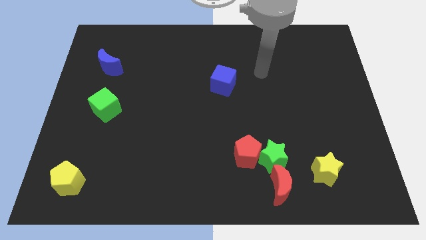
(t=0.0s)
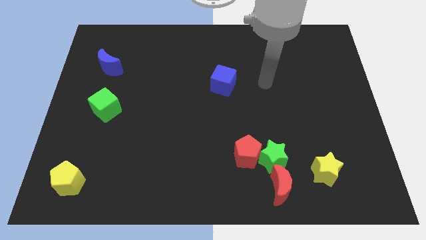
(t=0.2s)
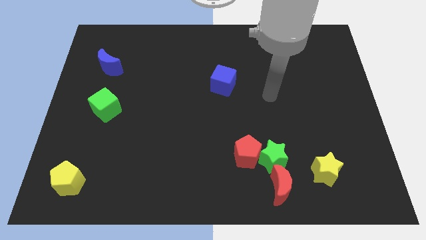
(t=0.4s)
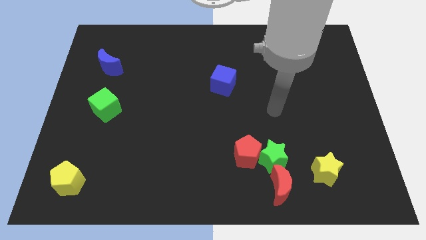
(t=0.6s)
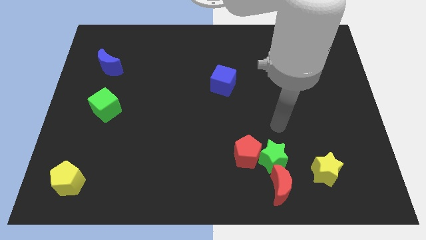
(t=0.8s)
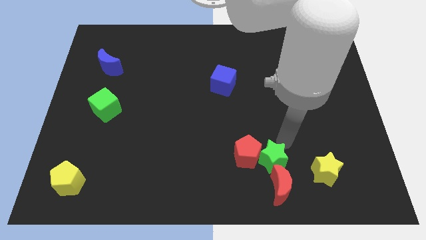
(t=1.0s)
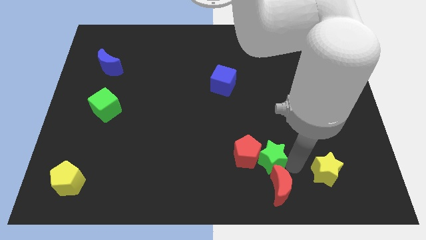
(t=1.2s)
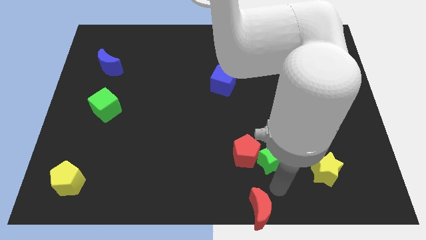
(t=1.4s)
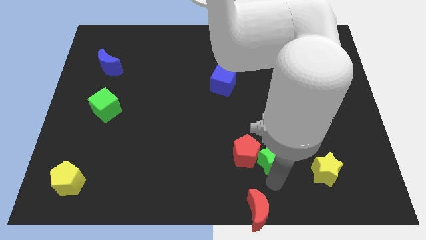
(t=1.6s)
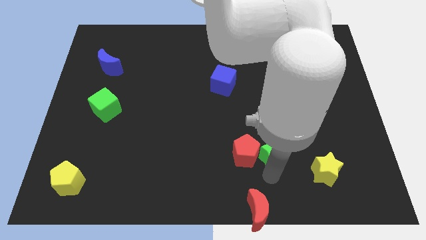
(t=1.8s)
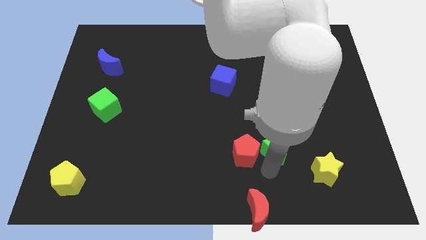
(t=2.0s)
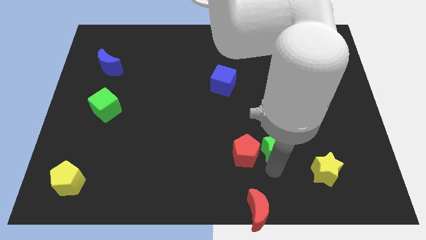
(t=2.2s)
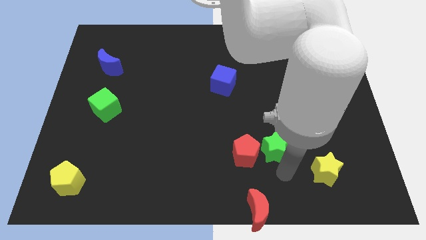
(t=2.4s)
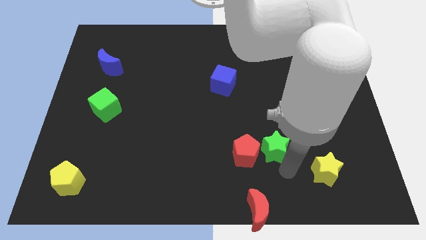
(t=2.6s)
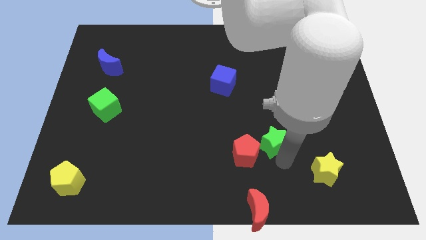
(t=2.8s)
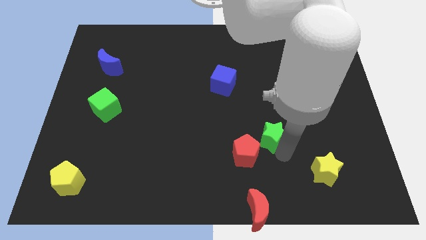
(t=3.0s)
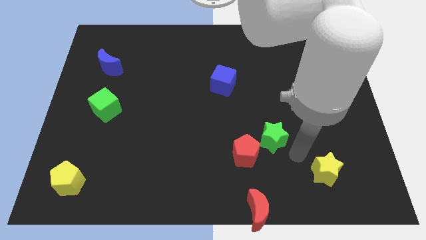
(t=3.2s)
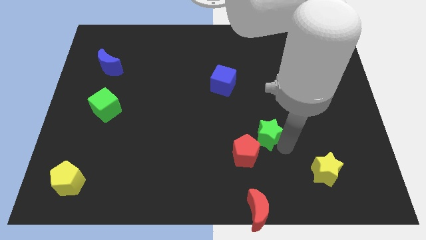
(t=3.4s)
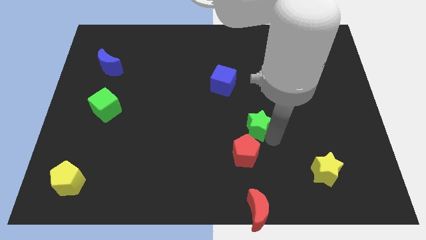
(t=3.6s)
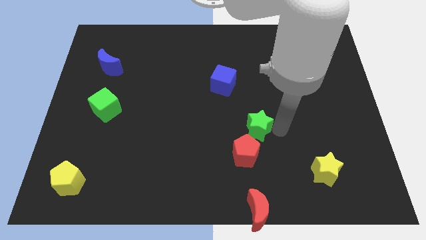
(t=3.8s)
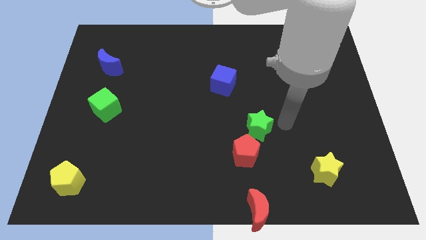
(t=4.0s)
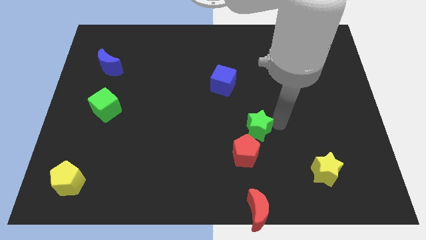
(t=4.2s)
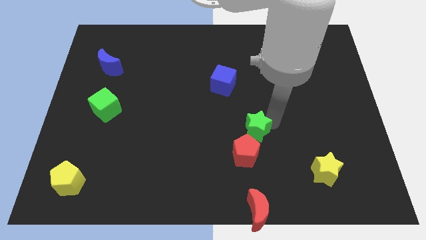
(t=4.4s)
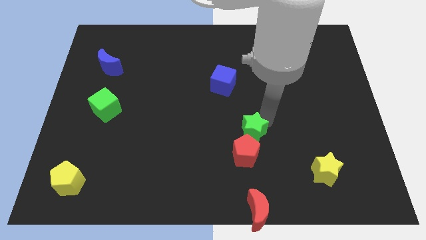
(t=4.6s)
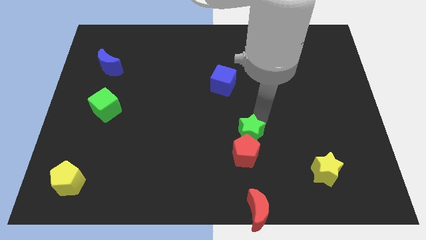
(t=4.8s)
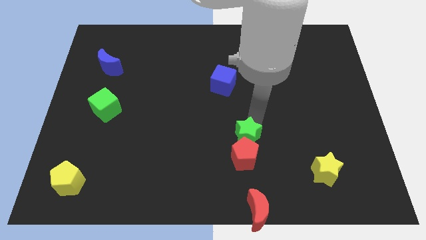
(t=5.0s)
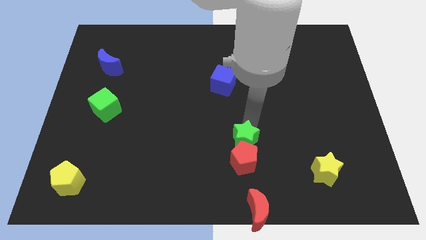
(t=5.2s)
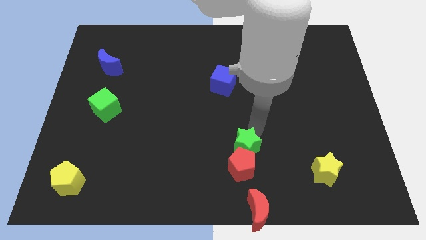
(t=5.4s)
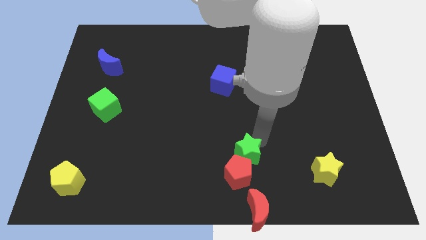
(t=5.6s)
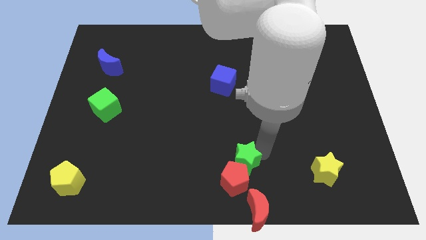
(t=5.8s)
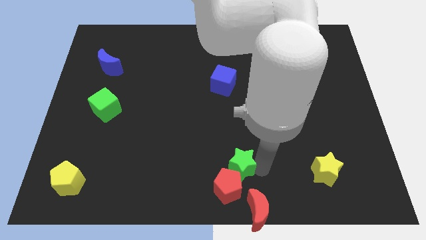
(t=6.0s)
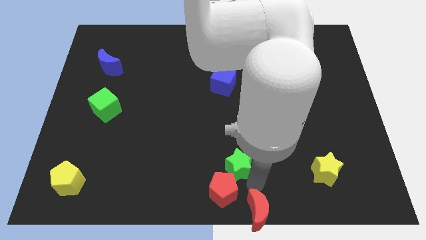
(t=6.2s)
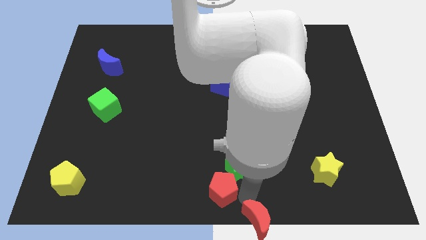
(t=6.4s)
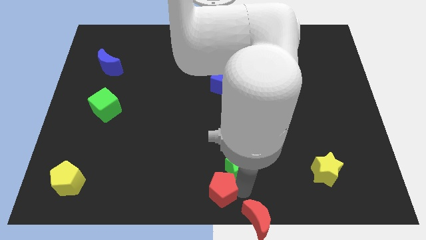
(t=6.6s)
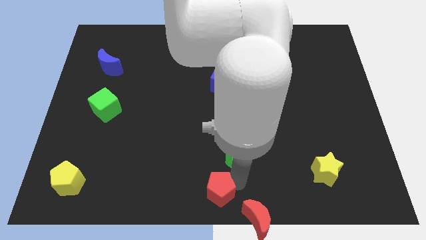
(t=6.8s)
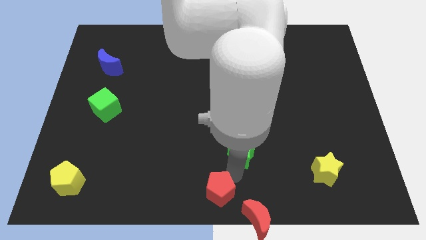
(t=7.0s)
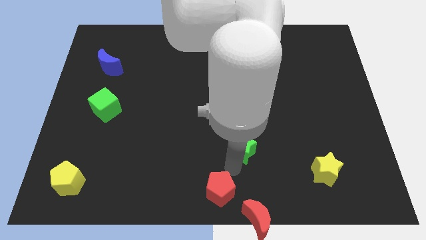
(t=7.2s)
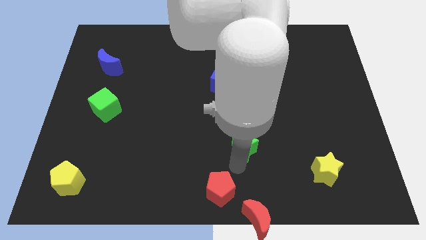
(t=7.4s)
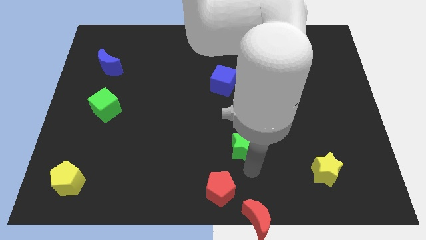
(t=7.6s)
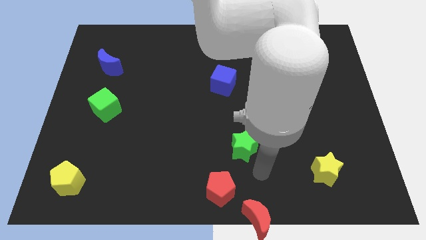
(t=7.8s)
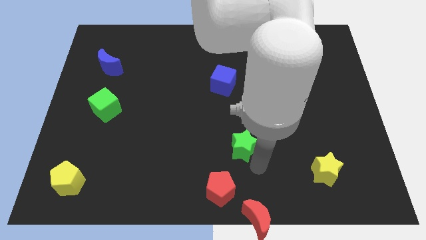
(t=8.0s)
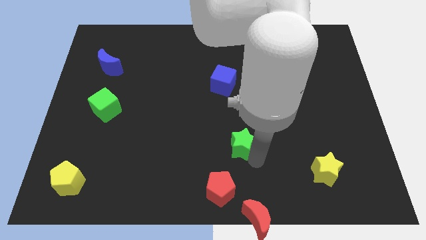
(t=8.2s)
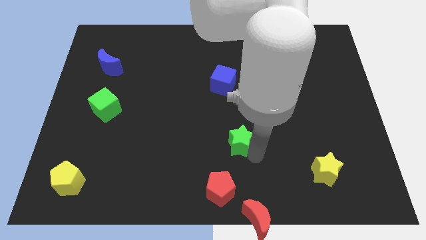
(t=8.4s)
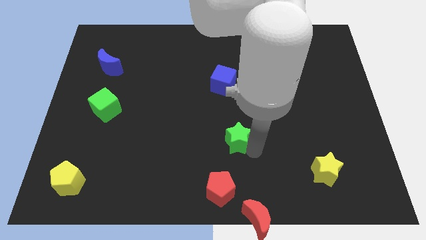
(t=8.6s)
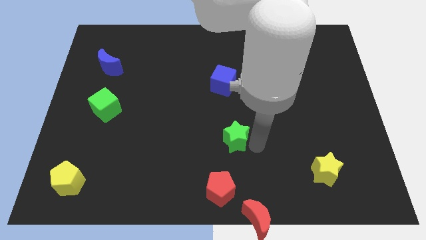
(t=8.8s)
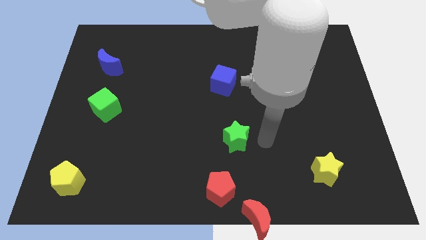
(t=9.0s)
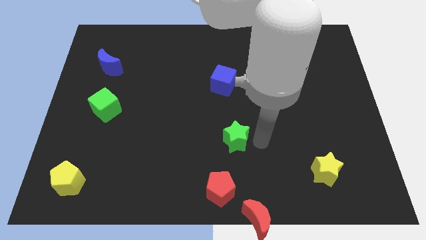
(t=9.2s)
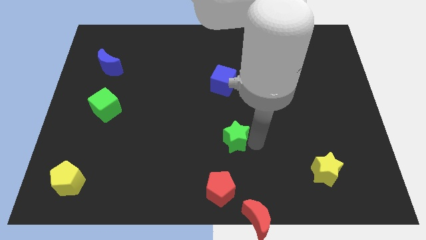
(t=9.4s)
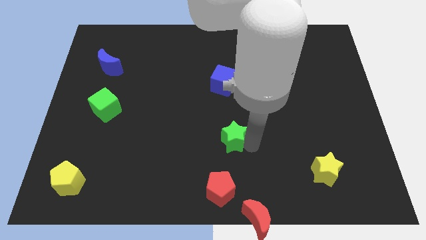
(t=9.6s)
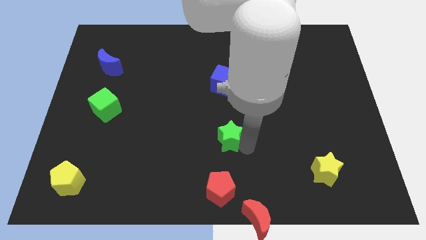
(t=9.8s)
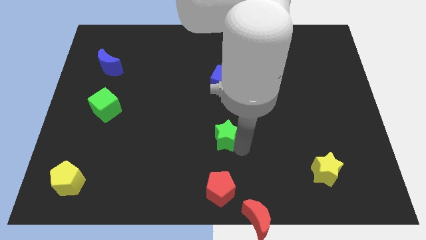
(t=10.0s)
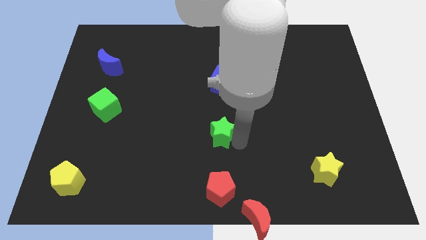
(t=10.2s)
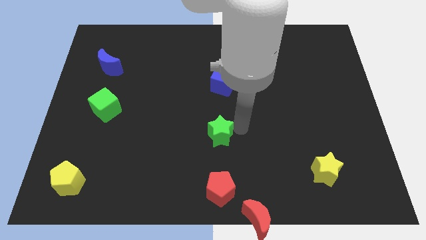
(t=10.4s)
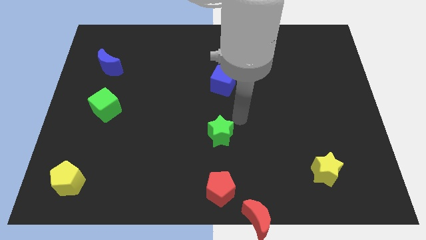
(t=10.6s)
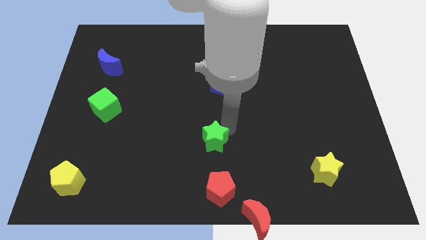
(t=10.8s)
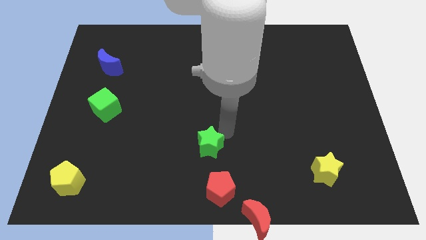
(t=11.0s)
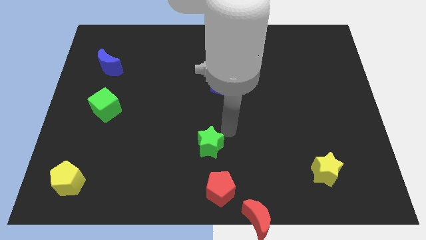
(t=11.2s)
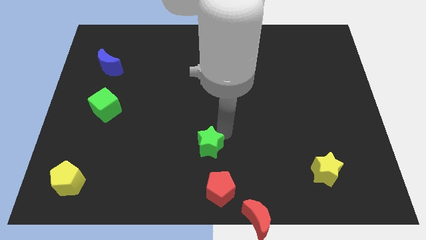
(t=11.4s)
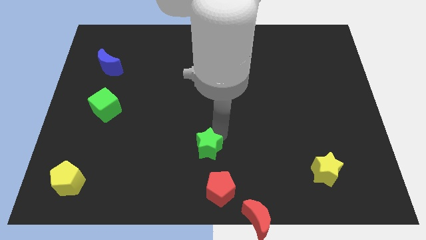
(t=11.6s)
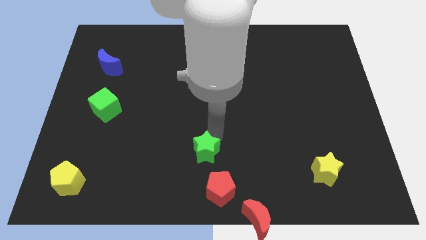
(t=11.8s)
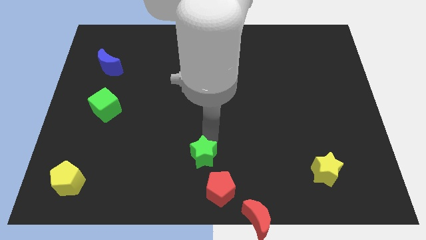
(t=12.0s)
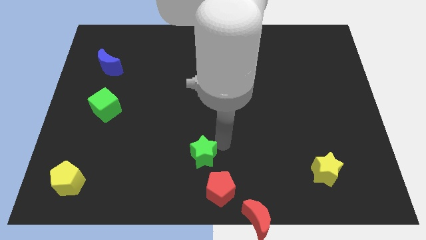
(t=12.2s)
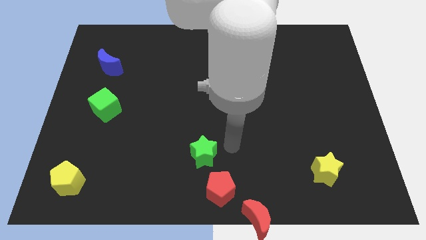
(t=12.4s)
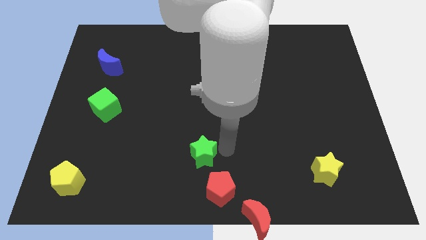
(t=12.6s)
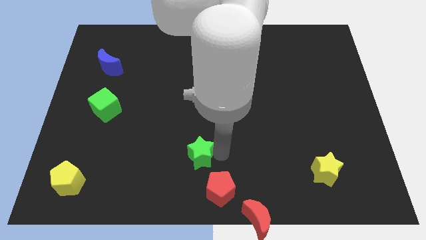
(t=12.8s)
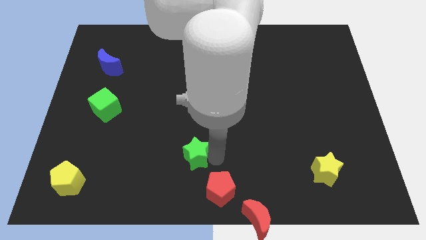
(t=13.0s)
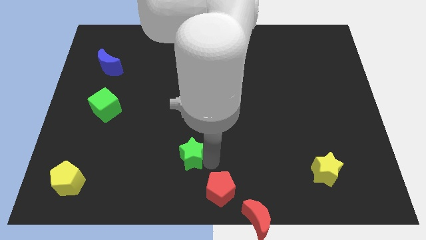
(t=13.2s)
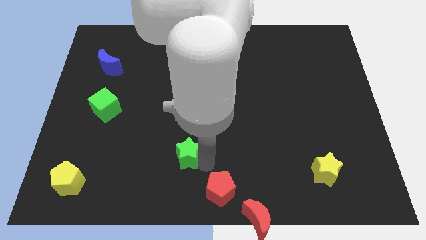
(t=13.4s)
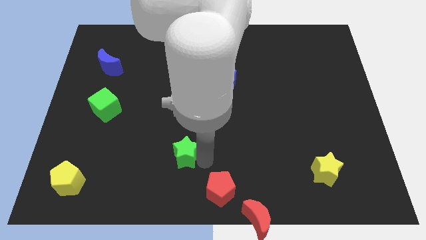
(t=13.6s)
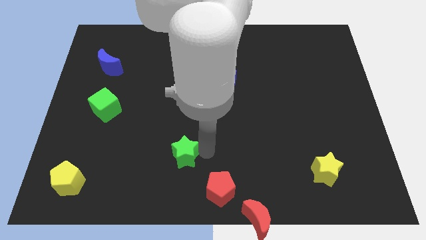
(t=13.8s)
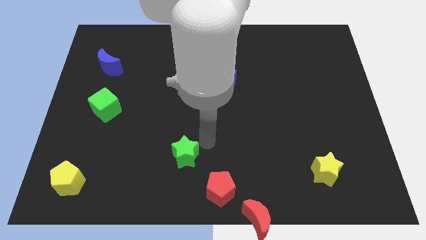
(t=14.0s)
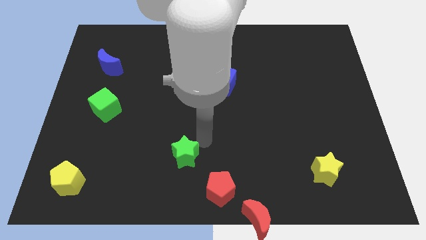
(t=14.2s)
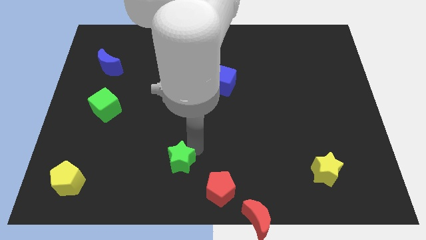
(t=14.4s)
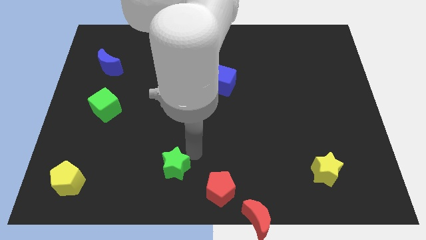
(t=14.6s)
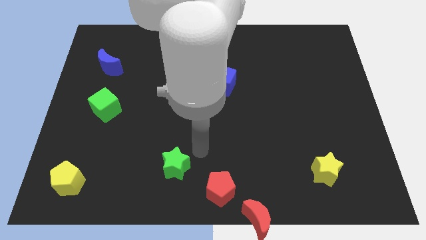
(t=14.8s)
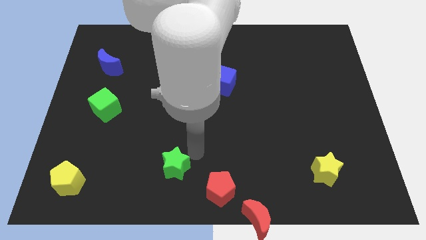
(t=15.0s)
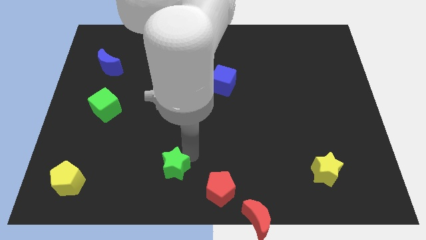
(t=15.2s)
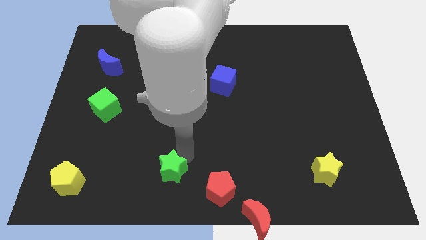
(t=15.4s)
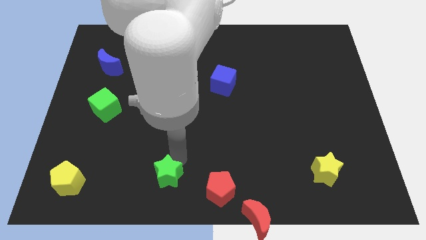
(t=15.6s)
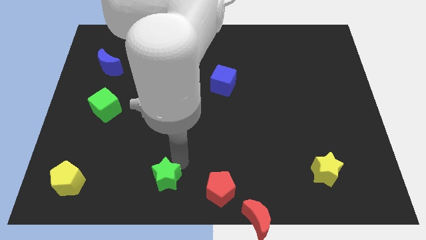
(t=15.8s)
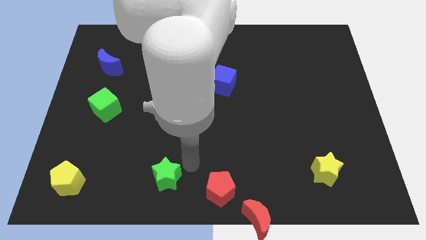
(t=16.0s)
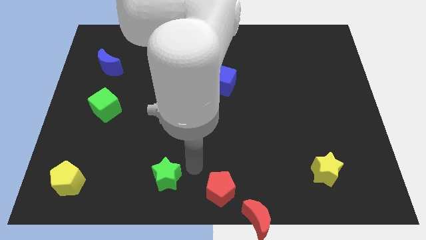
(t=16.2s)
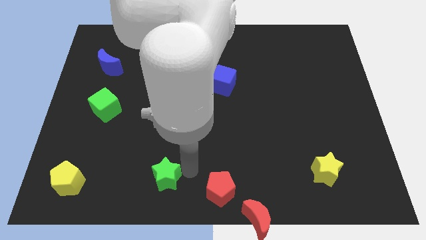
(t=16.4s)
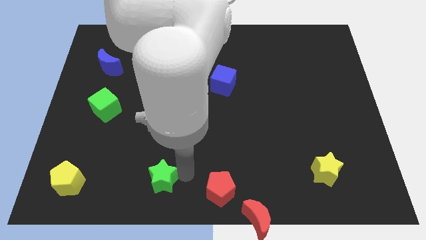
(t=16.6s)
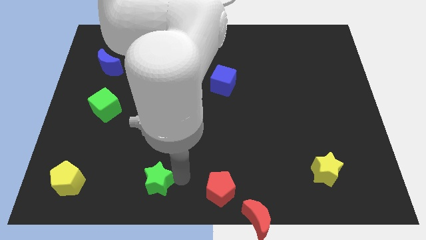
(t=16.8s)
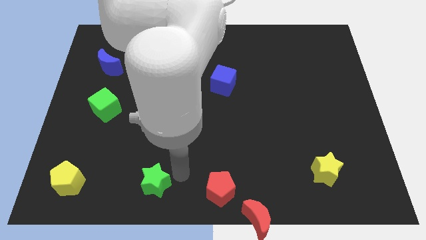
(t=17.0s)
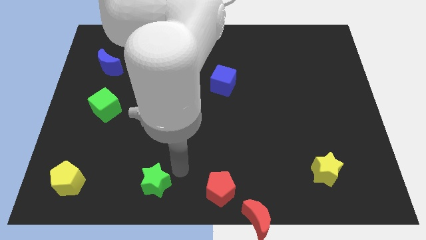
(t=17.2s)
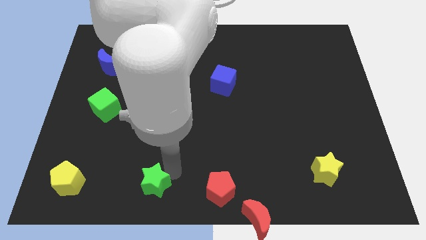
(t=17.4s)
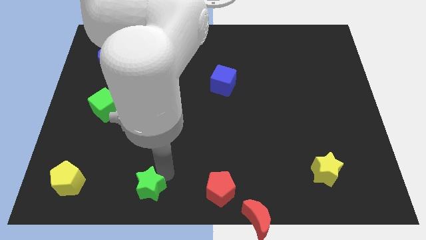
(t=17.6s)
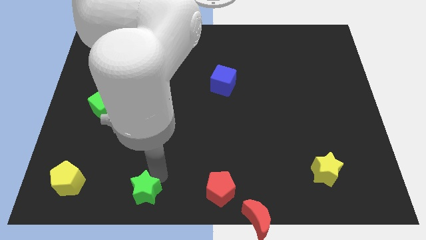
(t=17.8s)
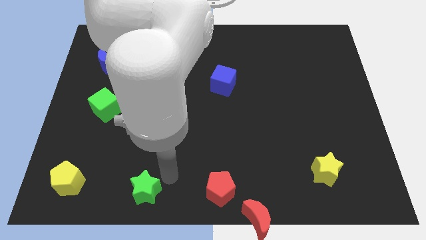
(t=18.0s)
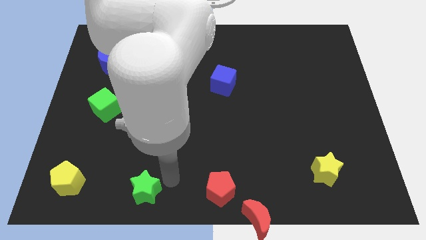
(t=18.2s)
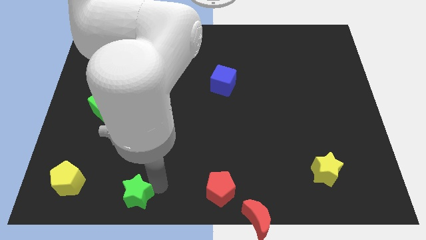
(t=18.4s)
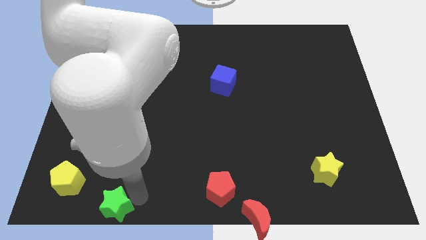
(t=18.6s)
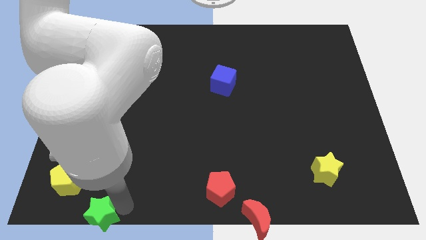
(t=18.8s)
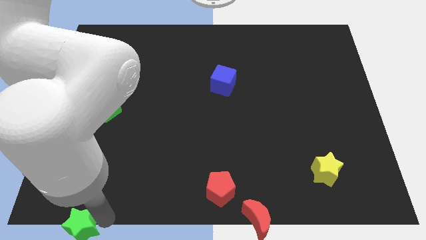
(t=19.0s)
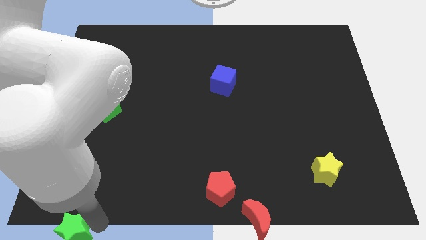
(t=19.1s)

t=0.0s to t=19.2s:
put the green star to the lower left corner
